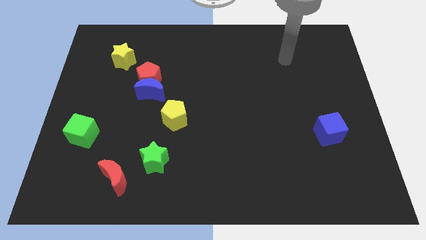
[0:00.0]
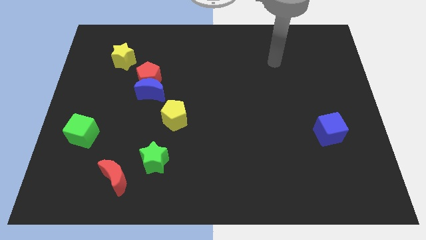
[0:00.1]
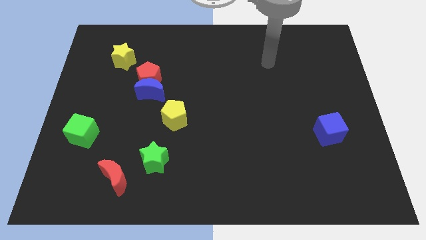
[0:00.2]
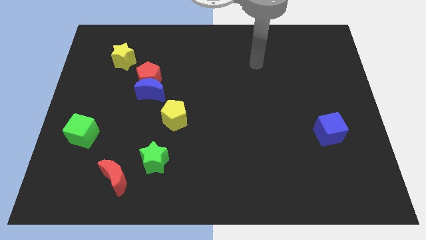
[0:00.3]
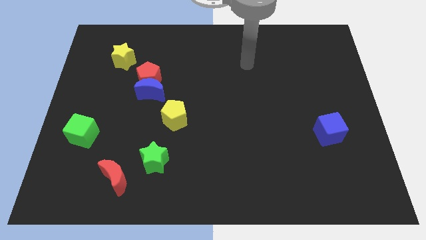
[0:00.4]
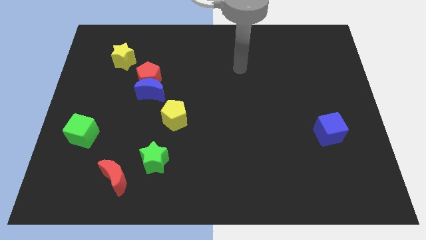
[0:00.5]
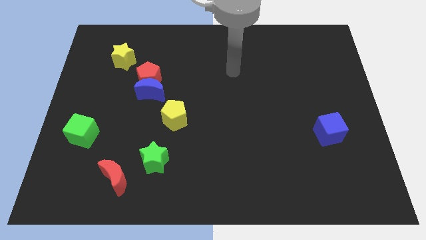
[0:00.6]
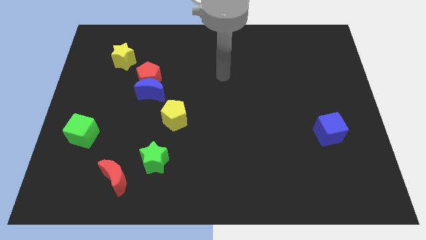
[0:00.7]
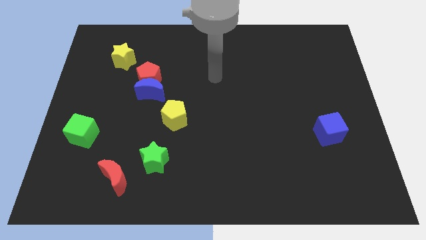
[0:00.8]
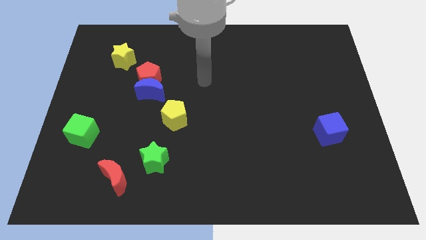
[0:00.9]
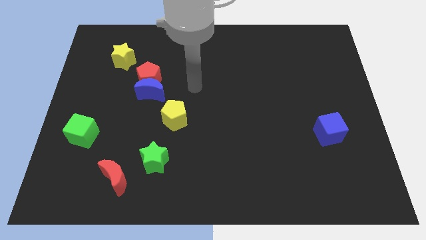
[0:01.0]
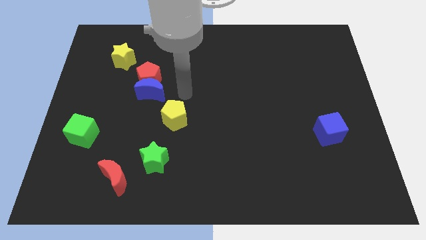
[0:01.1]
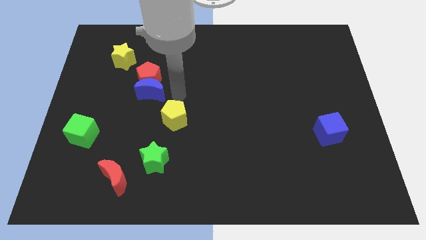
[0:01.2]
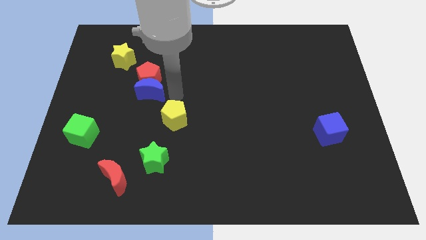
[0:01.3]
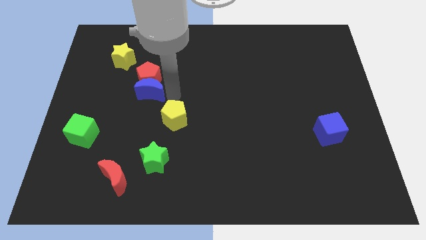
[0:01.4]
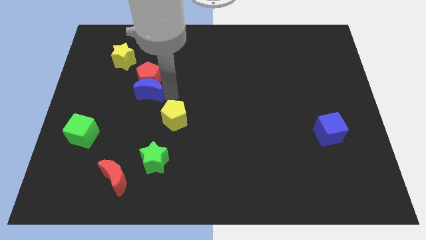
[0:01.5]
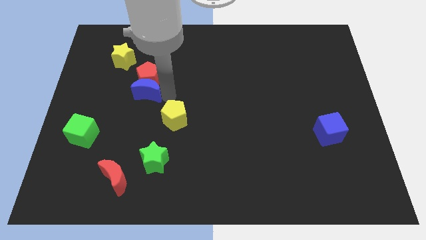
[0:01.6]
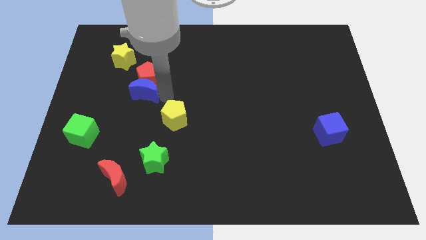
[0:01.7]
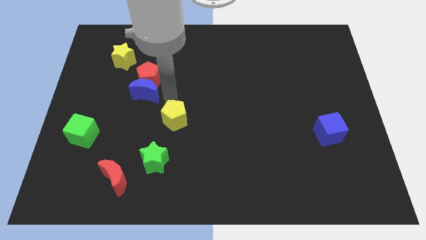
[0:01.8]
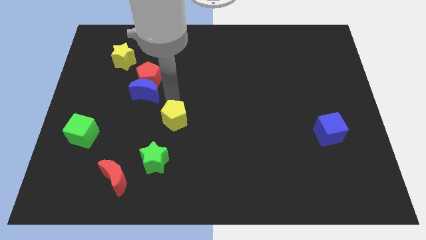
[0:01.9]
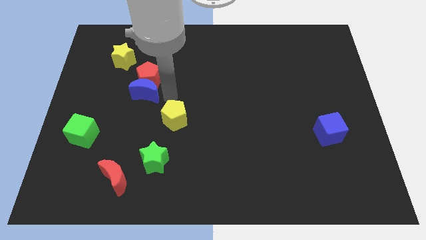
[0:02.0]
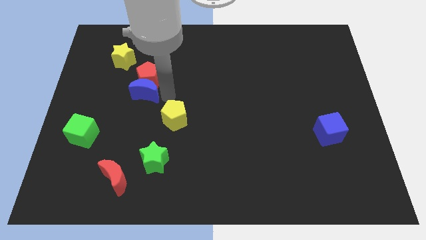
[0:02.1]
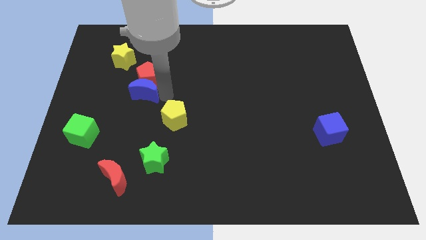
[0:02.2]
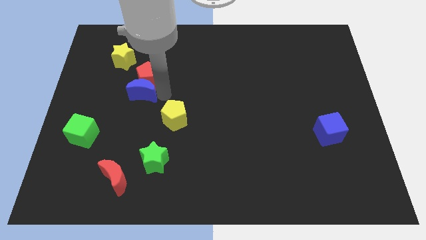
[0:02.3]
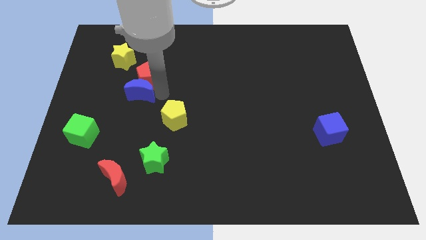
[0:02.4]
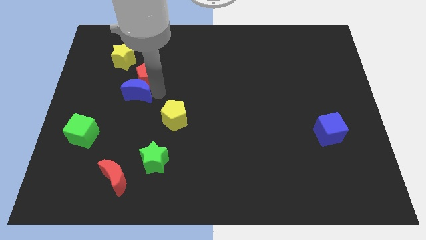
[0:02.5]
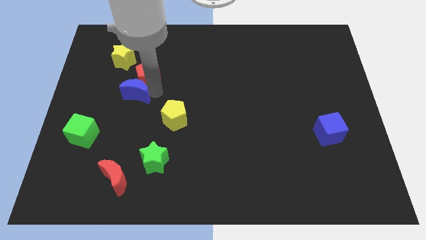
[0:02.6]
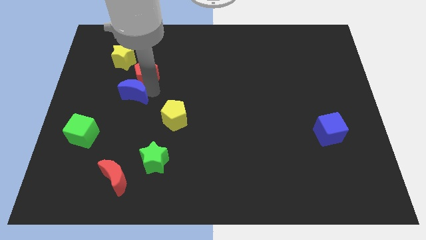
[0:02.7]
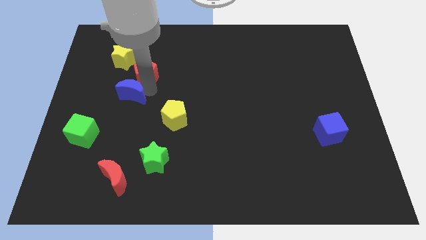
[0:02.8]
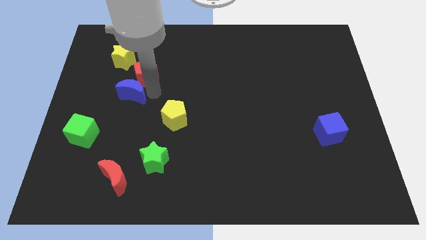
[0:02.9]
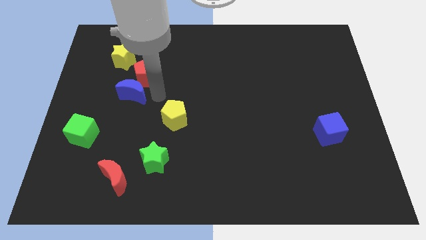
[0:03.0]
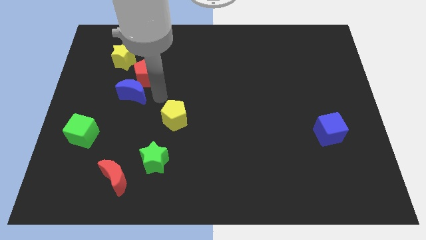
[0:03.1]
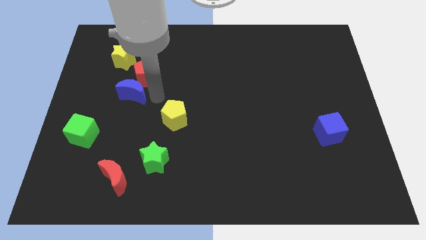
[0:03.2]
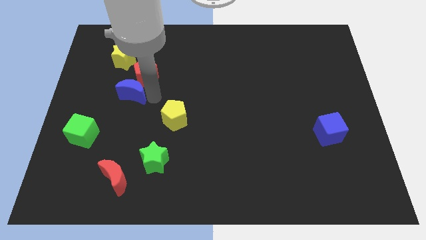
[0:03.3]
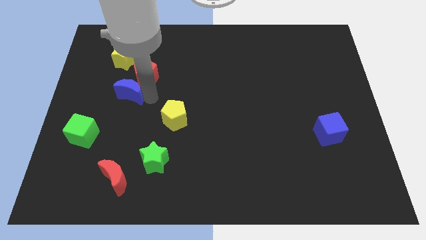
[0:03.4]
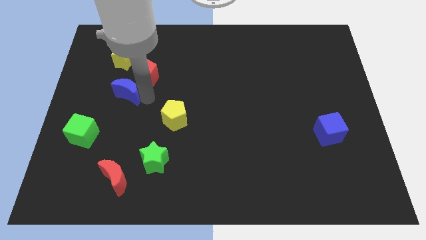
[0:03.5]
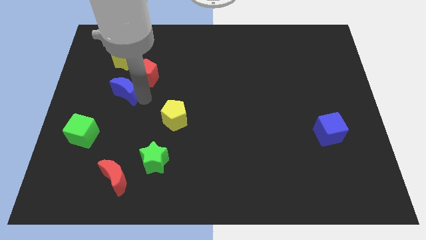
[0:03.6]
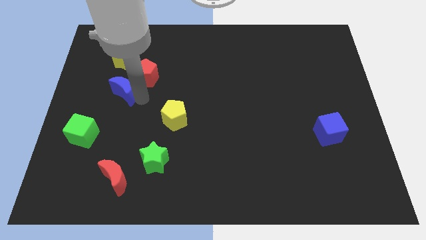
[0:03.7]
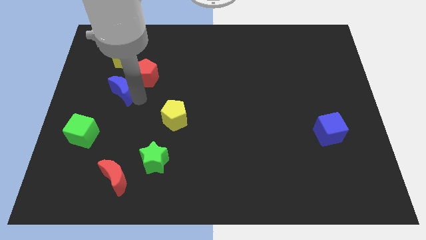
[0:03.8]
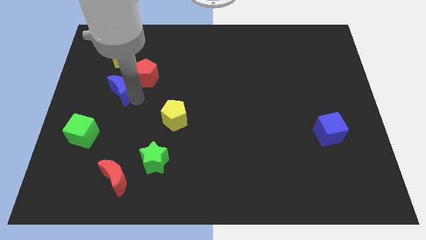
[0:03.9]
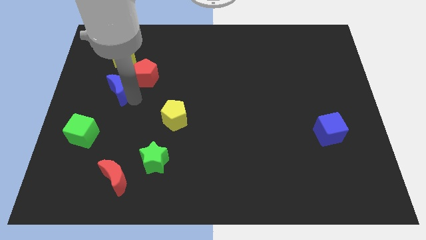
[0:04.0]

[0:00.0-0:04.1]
separate the blue moon from the red pentagon and yellow pentagon

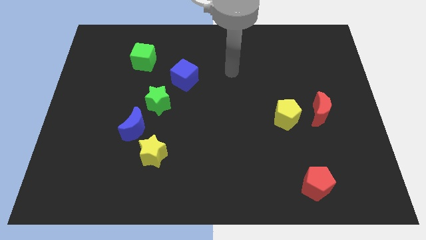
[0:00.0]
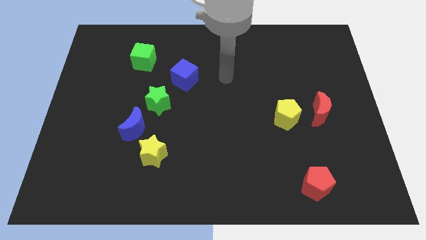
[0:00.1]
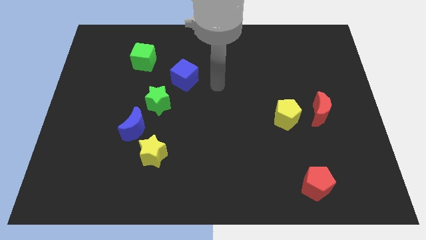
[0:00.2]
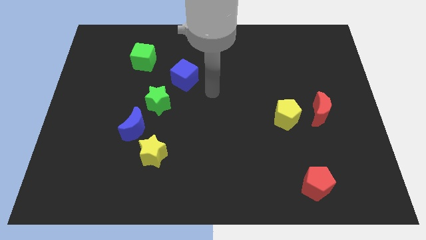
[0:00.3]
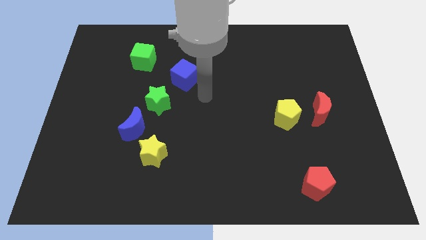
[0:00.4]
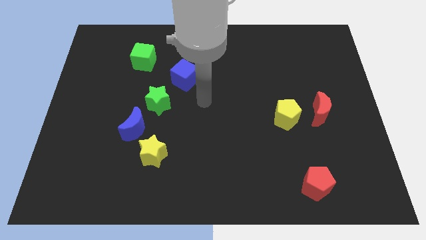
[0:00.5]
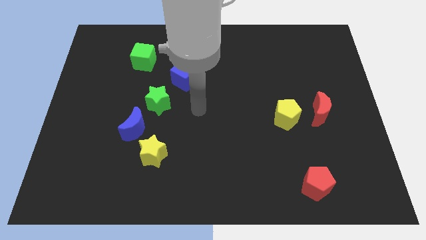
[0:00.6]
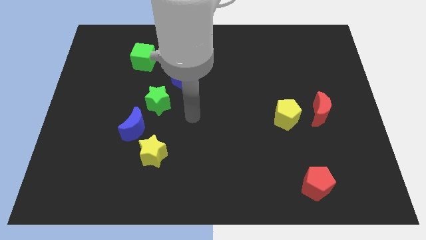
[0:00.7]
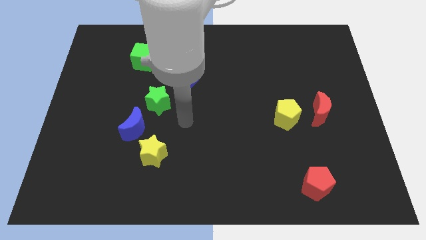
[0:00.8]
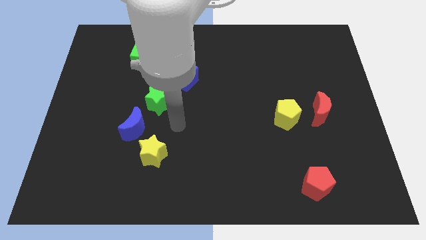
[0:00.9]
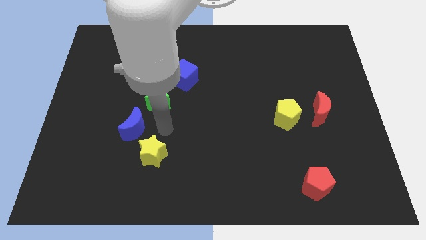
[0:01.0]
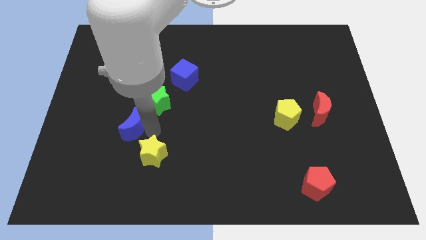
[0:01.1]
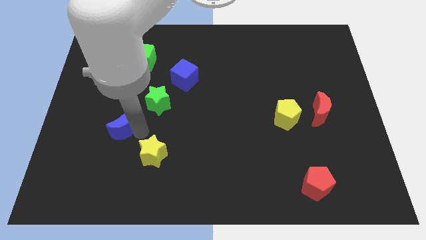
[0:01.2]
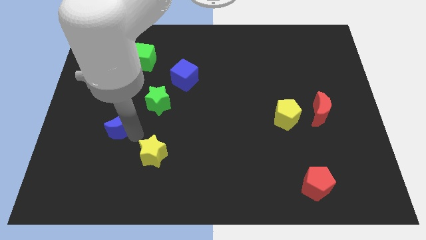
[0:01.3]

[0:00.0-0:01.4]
move the yellow star away from the blue moon

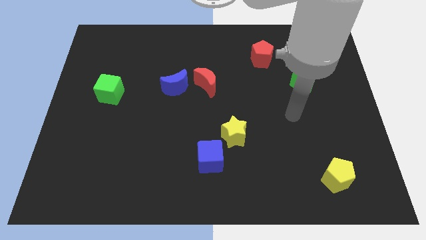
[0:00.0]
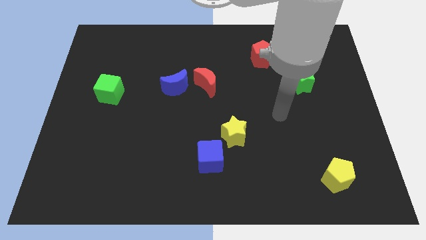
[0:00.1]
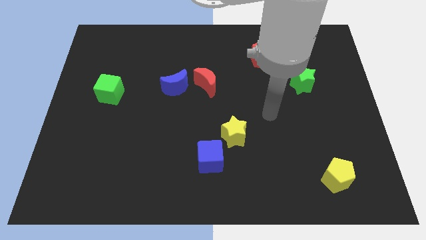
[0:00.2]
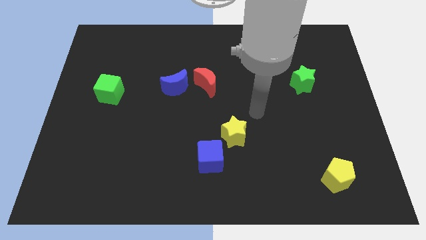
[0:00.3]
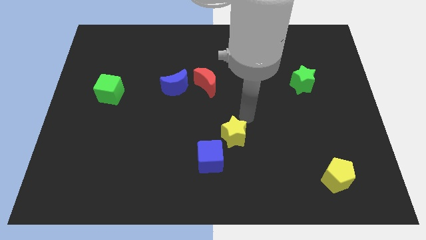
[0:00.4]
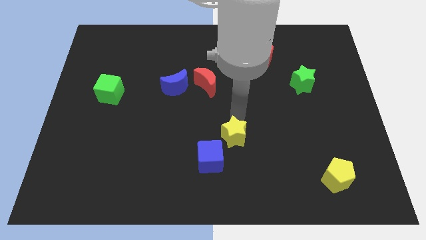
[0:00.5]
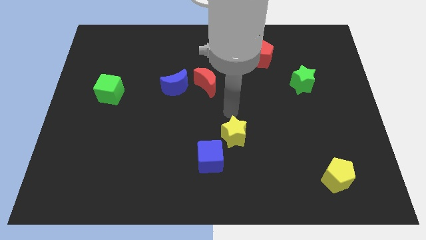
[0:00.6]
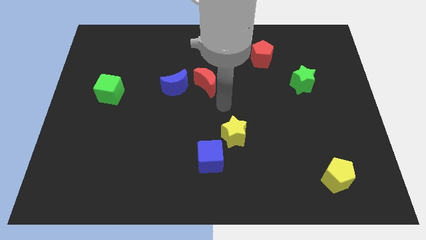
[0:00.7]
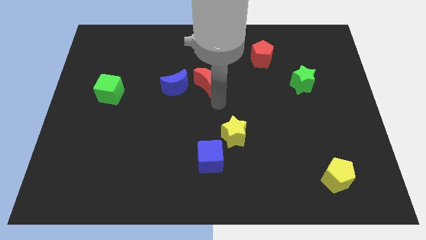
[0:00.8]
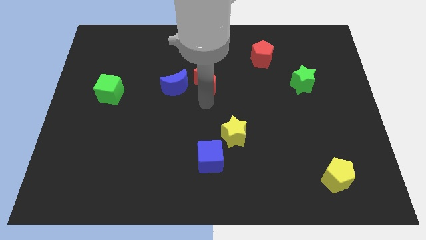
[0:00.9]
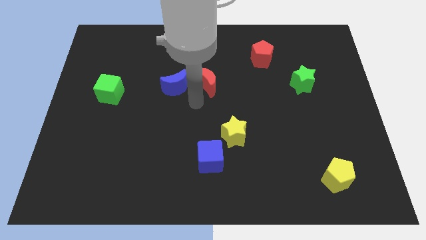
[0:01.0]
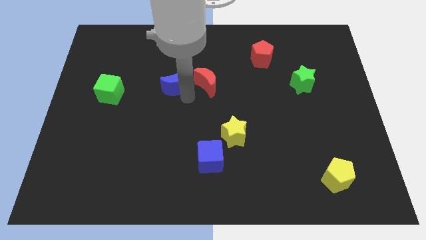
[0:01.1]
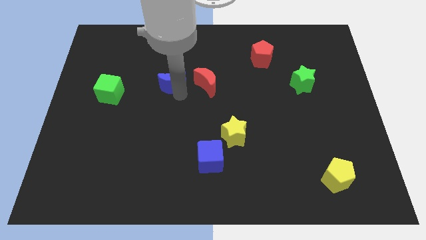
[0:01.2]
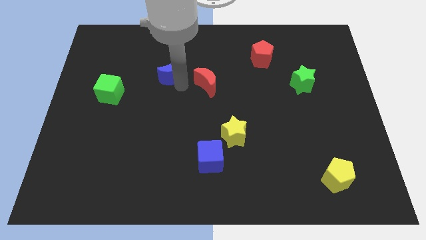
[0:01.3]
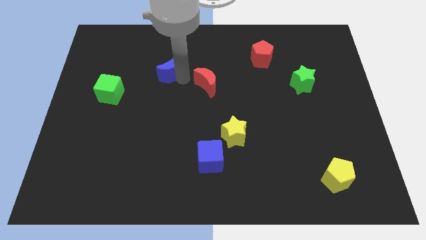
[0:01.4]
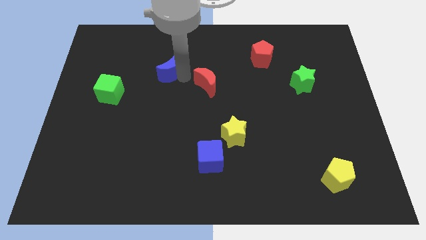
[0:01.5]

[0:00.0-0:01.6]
pull the red moon apart from the blue moon

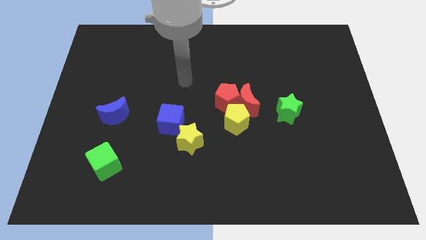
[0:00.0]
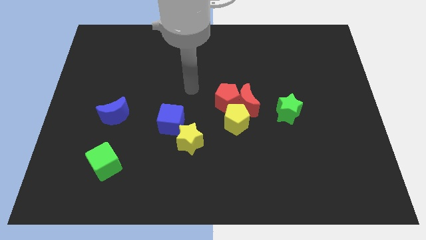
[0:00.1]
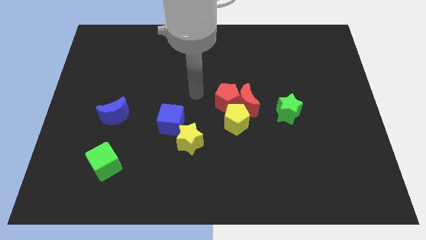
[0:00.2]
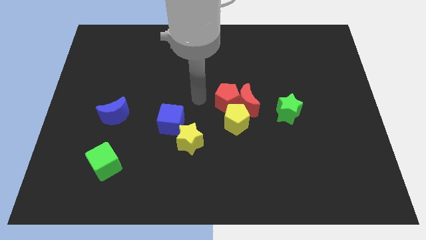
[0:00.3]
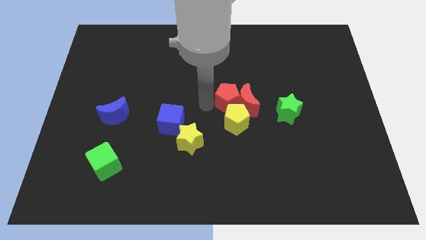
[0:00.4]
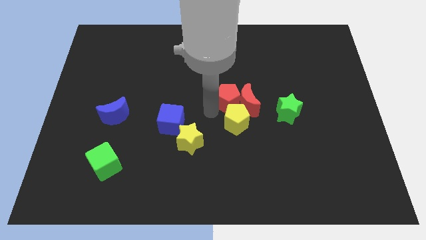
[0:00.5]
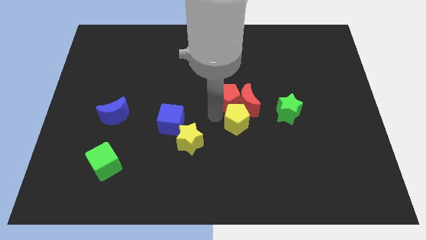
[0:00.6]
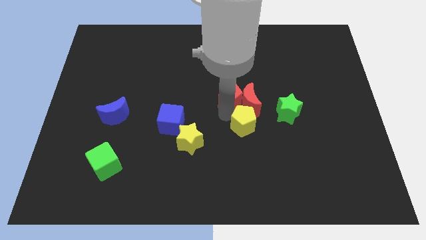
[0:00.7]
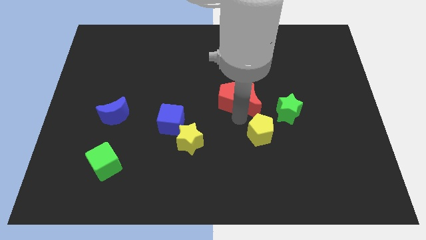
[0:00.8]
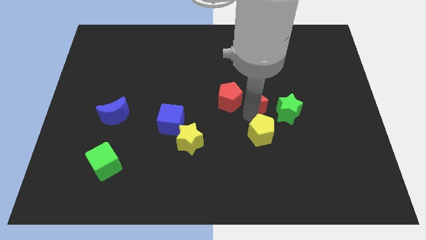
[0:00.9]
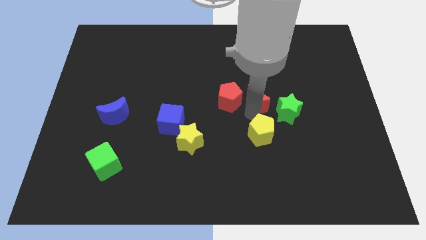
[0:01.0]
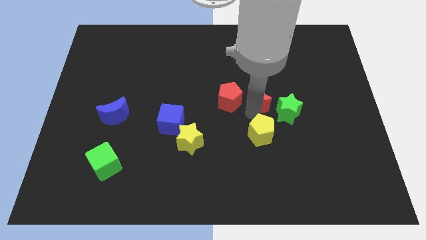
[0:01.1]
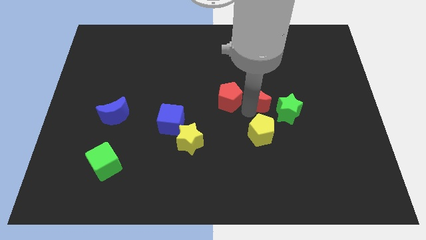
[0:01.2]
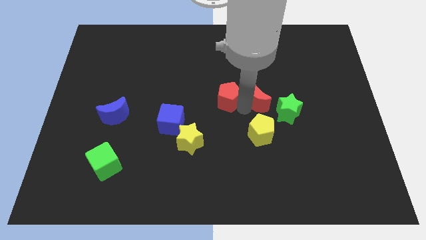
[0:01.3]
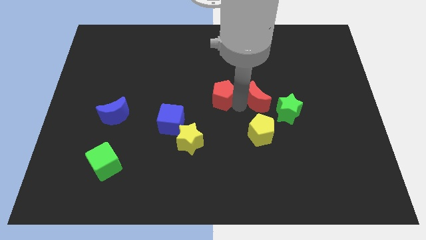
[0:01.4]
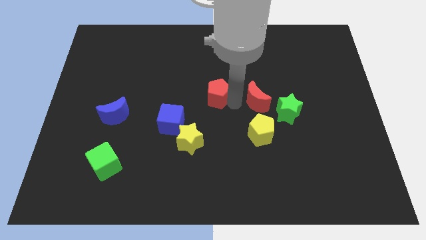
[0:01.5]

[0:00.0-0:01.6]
pull the red pentagon apart from the red moon and yellow pentagon

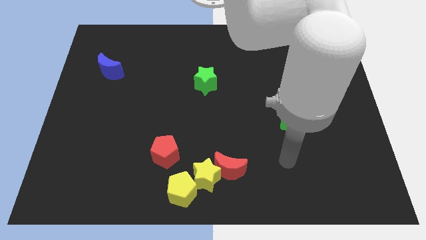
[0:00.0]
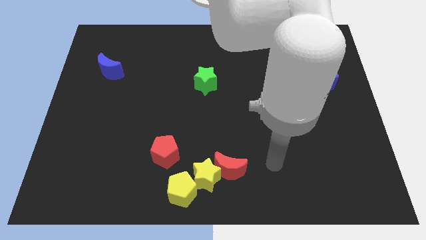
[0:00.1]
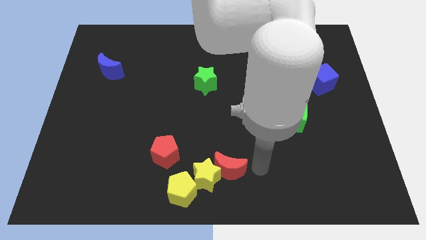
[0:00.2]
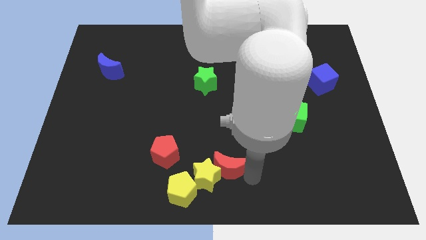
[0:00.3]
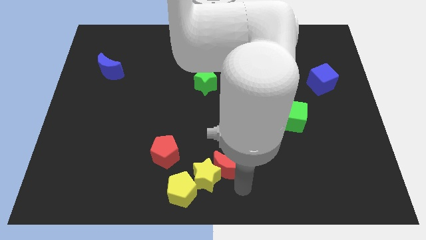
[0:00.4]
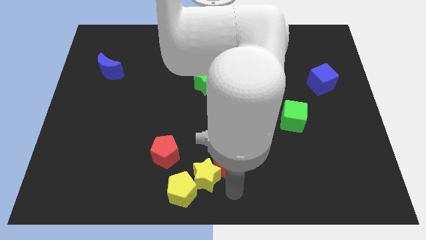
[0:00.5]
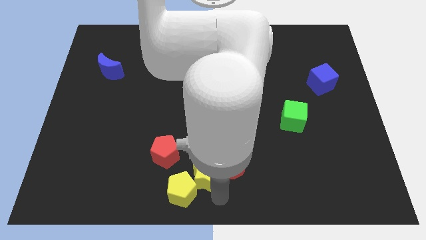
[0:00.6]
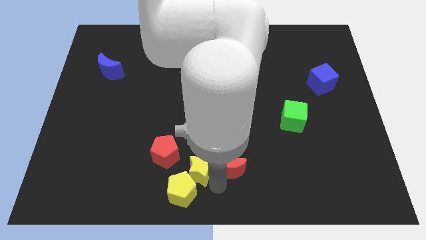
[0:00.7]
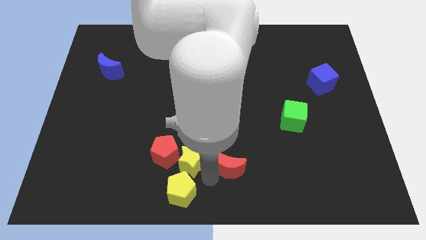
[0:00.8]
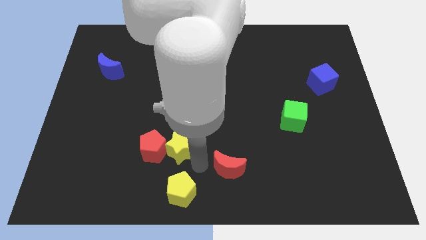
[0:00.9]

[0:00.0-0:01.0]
pull the red moon apart from the yellow star
